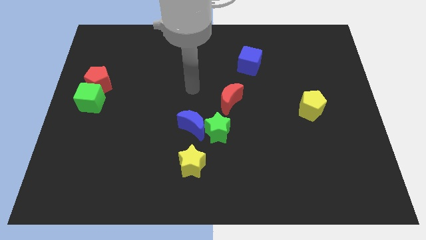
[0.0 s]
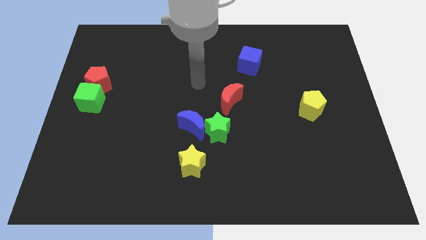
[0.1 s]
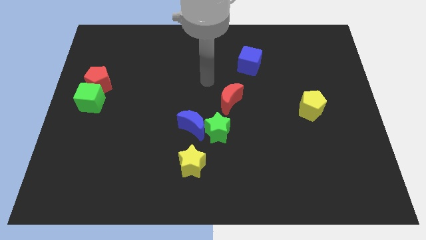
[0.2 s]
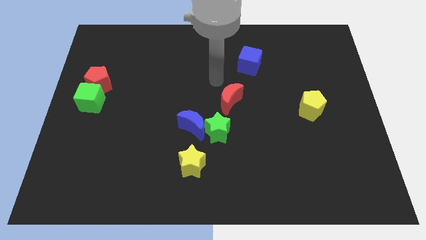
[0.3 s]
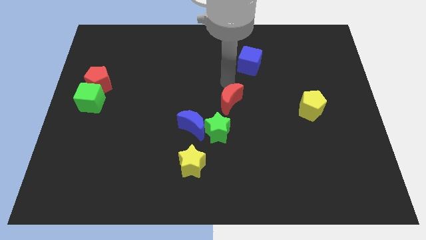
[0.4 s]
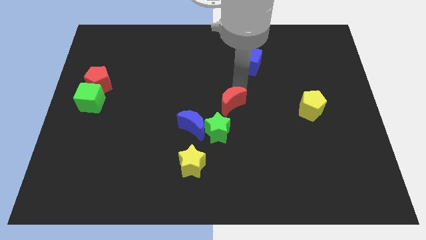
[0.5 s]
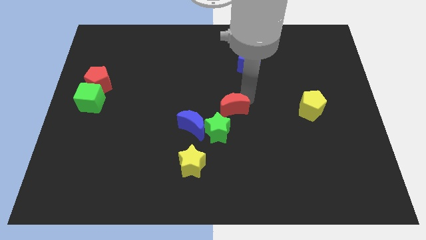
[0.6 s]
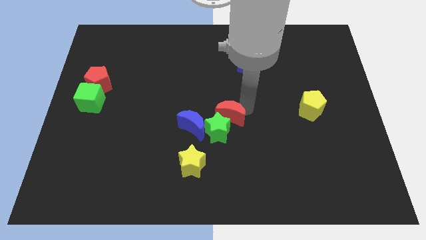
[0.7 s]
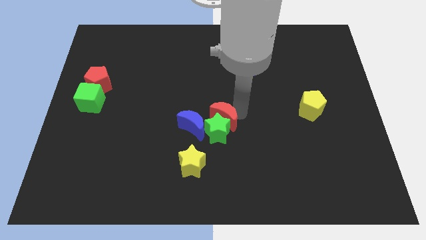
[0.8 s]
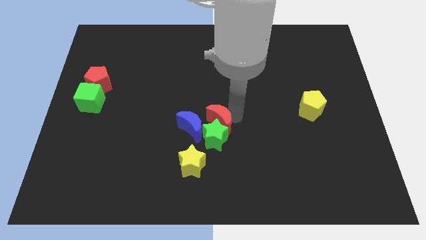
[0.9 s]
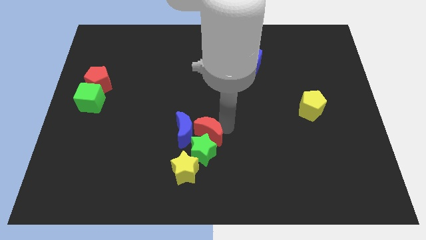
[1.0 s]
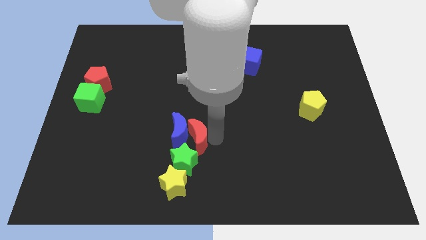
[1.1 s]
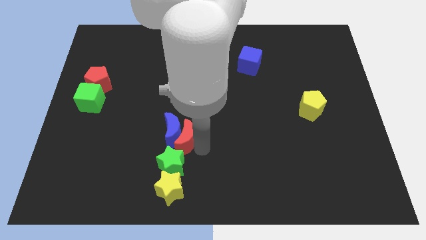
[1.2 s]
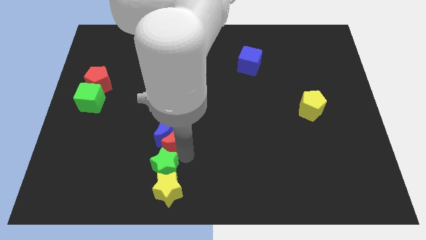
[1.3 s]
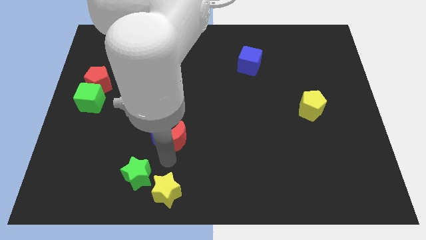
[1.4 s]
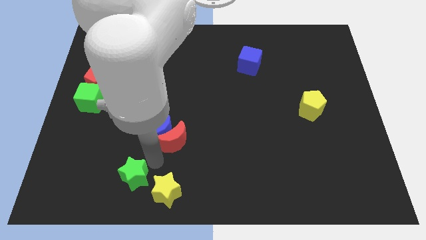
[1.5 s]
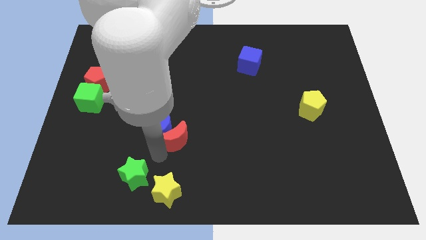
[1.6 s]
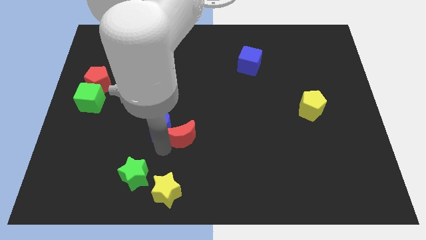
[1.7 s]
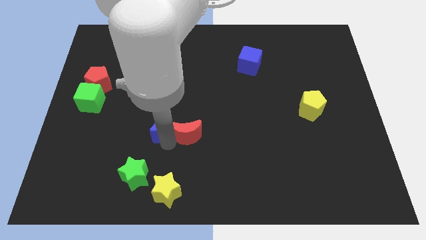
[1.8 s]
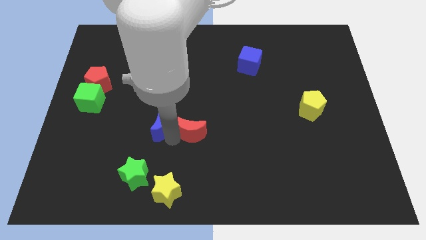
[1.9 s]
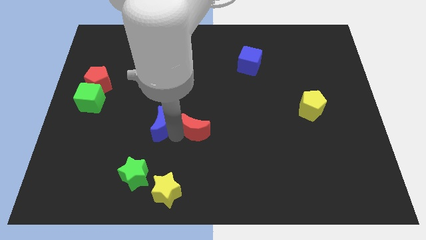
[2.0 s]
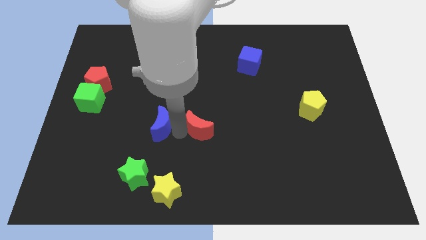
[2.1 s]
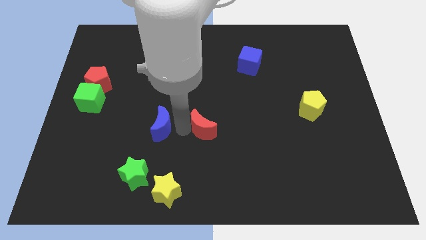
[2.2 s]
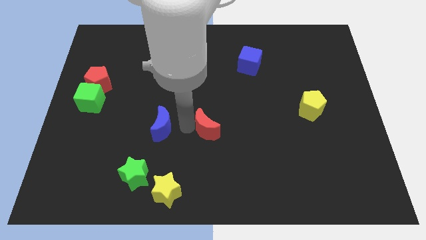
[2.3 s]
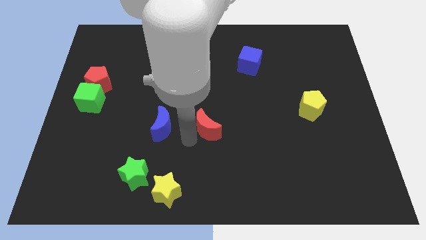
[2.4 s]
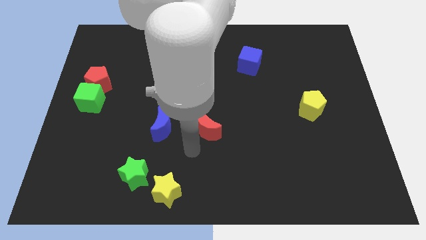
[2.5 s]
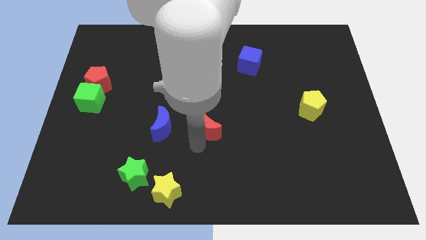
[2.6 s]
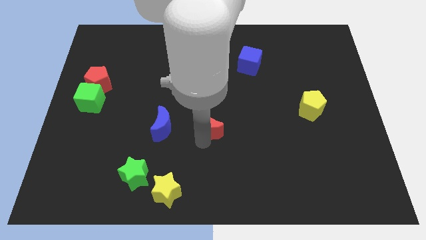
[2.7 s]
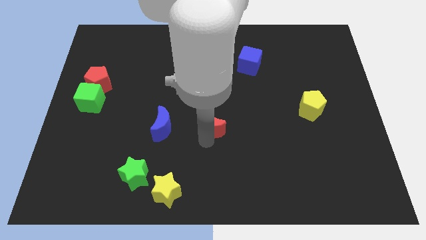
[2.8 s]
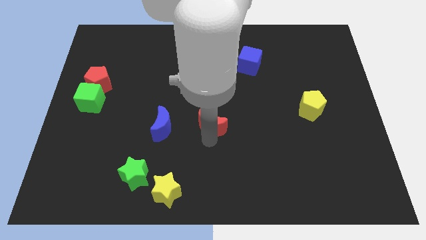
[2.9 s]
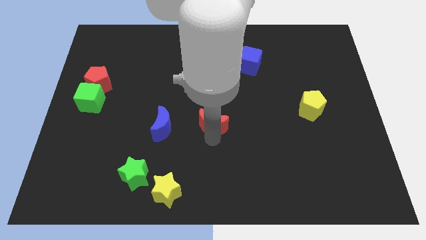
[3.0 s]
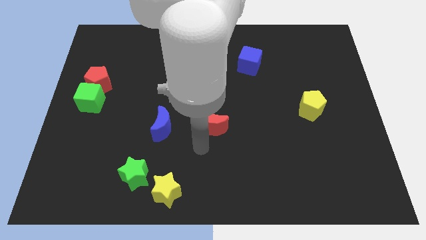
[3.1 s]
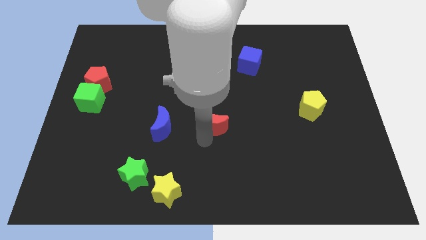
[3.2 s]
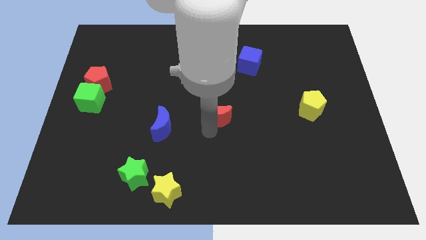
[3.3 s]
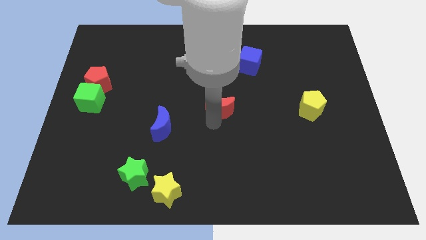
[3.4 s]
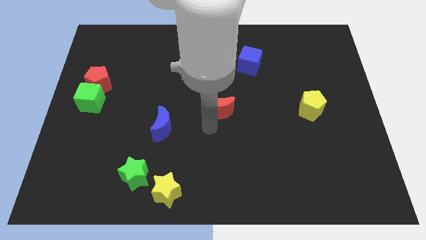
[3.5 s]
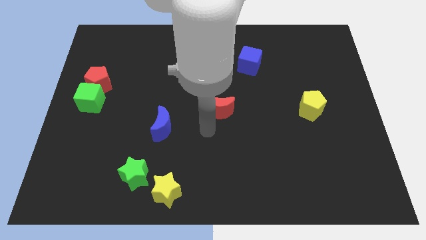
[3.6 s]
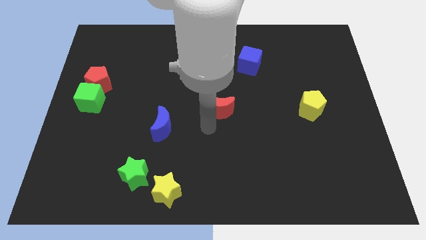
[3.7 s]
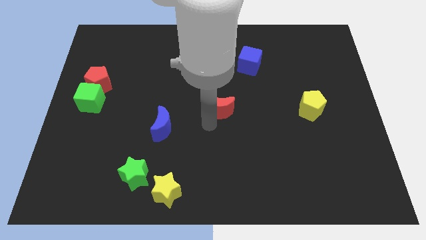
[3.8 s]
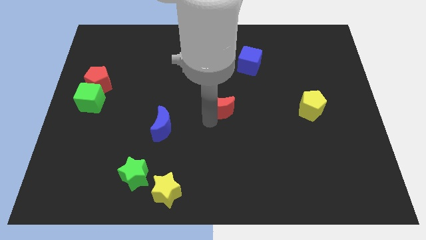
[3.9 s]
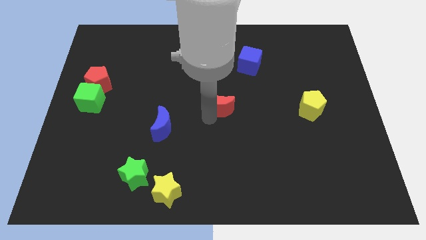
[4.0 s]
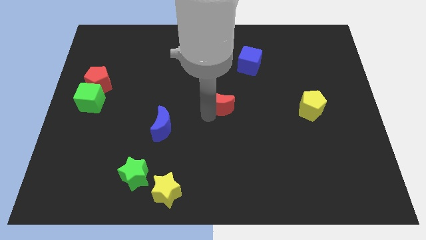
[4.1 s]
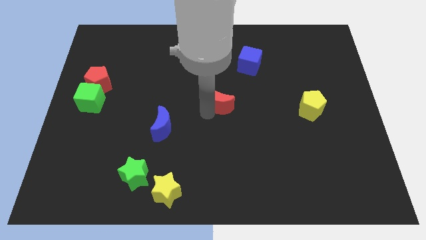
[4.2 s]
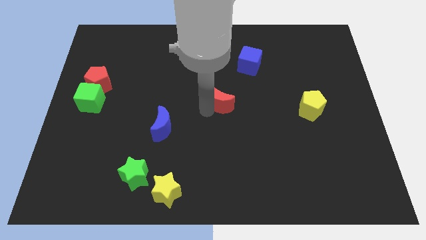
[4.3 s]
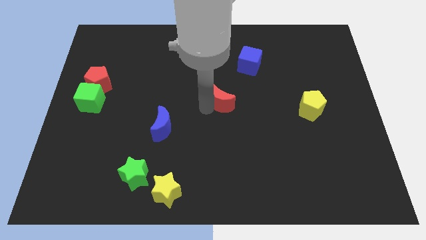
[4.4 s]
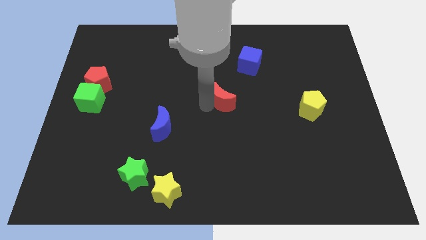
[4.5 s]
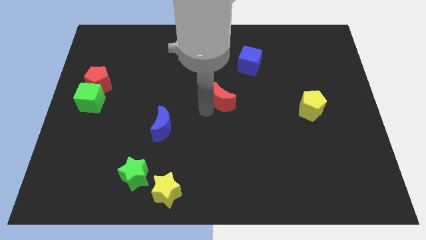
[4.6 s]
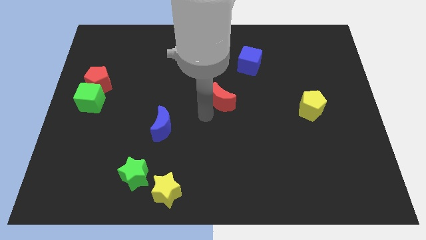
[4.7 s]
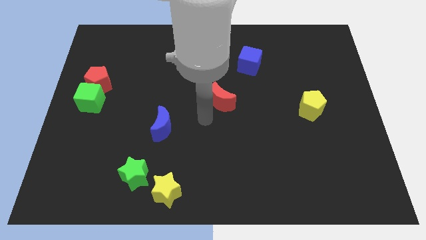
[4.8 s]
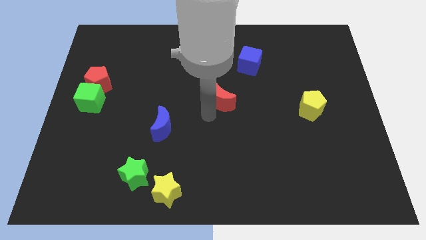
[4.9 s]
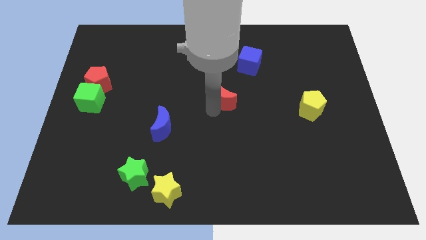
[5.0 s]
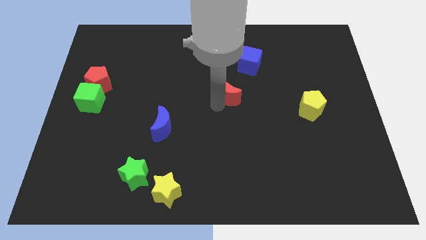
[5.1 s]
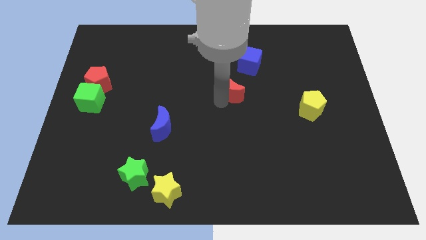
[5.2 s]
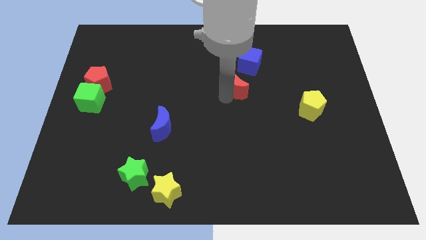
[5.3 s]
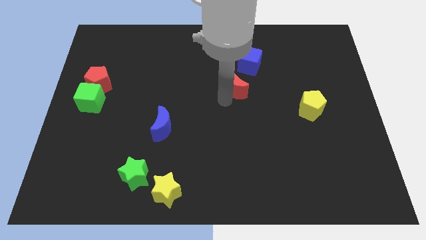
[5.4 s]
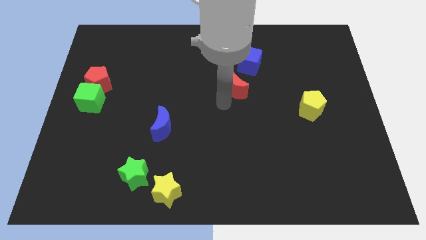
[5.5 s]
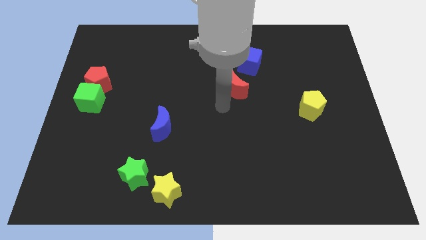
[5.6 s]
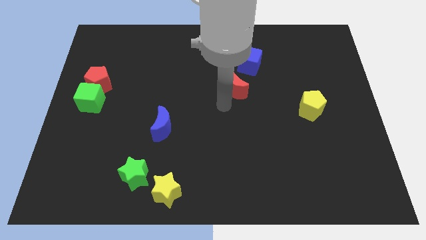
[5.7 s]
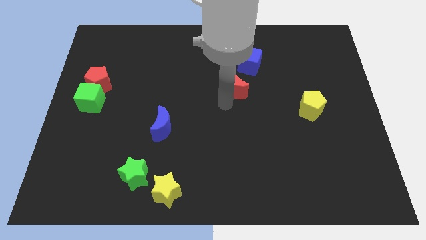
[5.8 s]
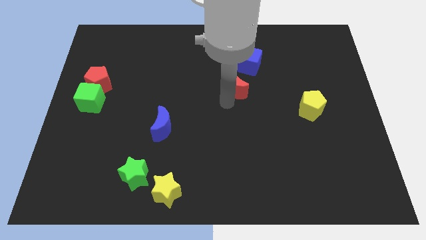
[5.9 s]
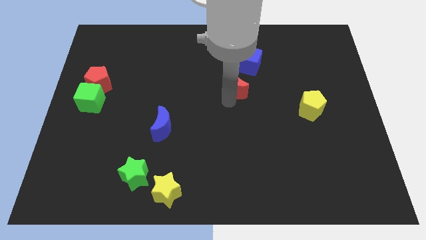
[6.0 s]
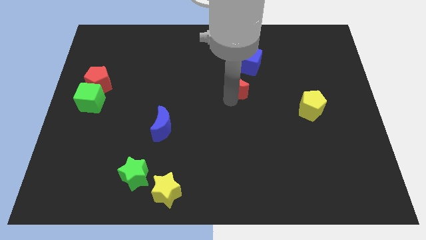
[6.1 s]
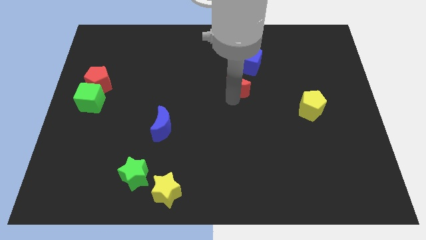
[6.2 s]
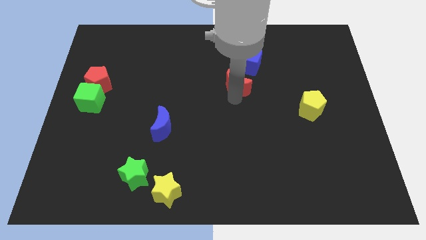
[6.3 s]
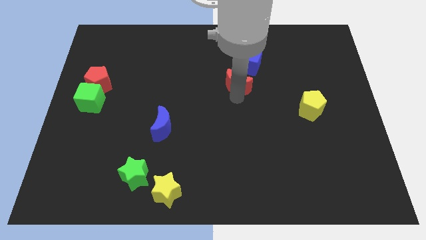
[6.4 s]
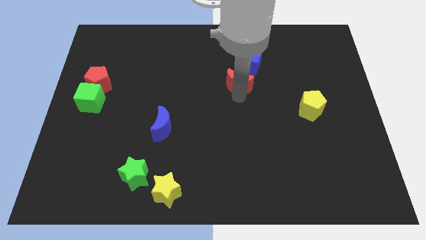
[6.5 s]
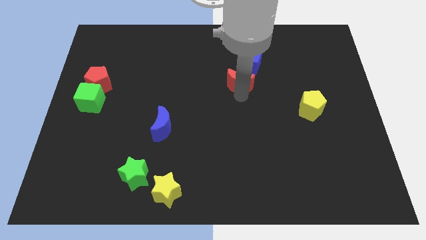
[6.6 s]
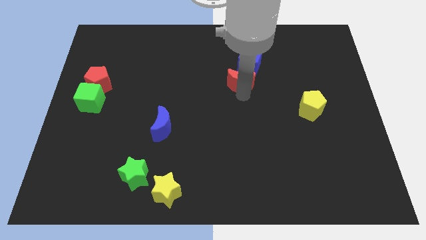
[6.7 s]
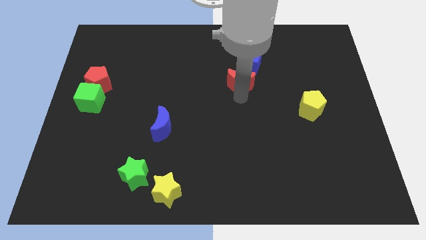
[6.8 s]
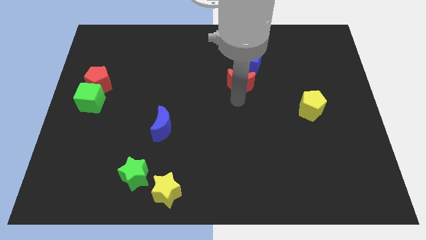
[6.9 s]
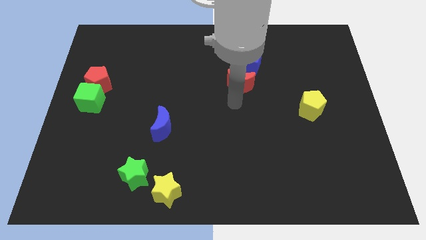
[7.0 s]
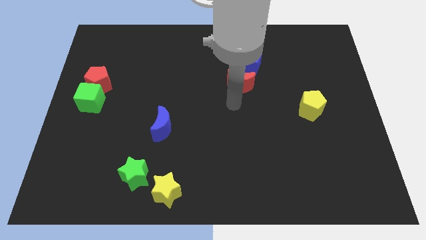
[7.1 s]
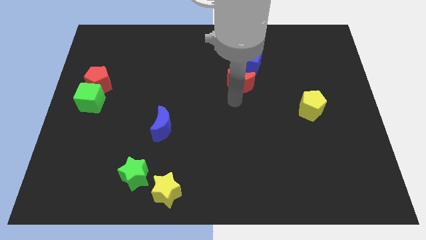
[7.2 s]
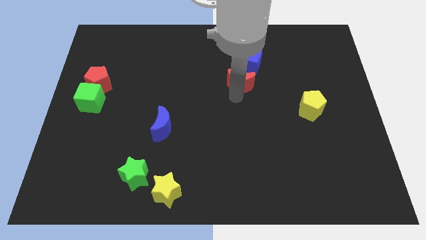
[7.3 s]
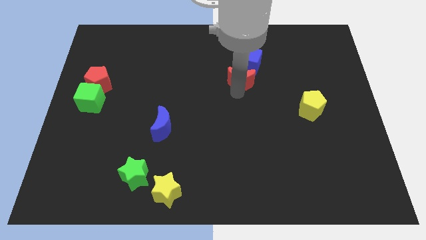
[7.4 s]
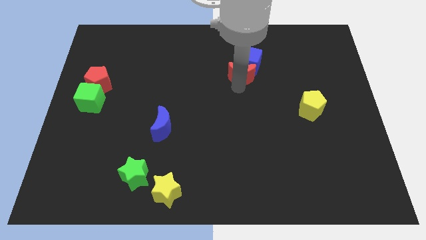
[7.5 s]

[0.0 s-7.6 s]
move the red moon close to the blue cube

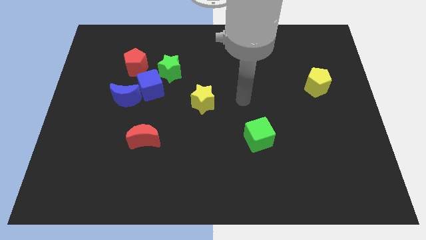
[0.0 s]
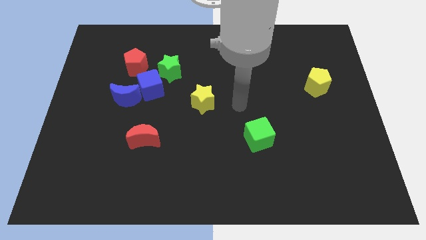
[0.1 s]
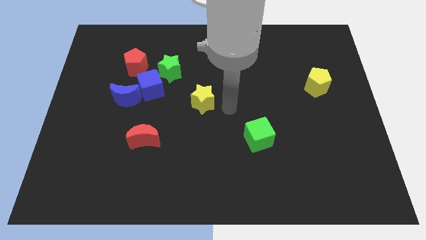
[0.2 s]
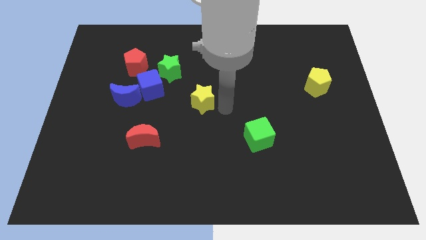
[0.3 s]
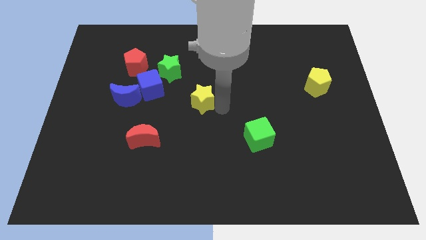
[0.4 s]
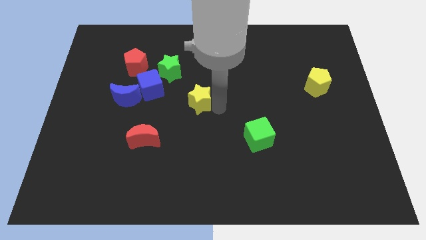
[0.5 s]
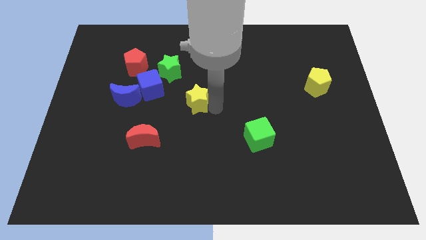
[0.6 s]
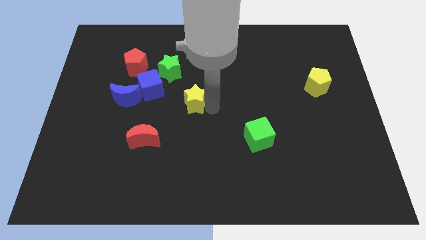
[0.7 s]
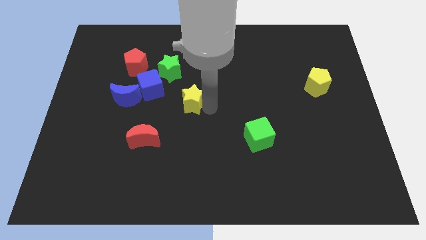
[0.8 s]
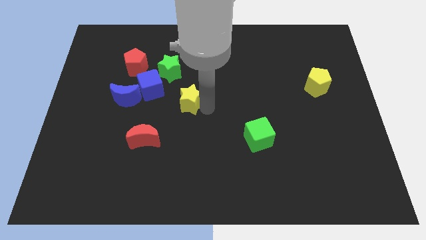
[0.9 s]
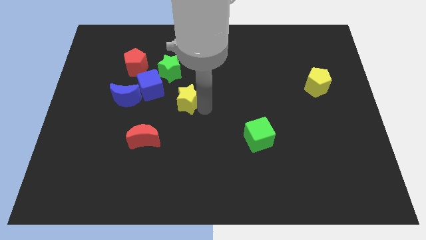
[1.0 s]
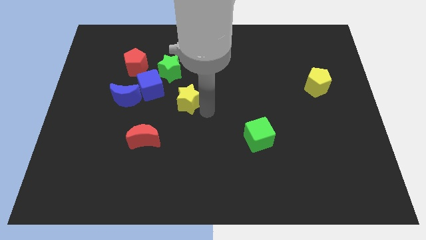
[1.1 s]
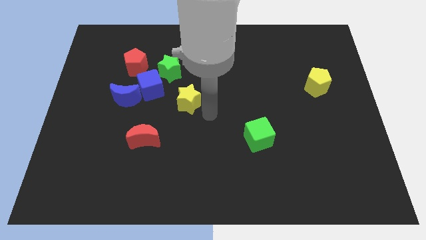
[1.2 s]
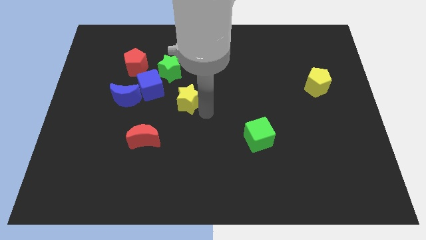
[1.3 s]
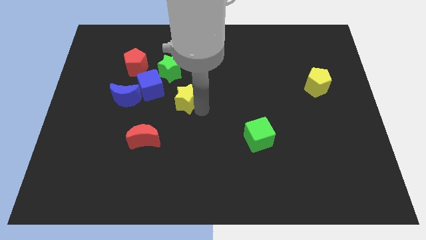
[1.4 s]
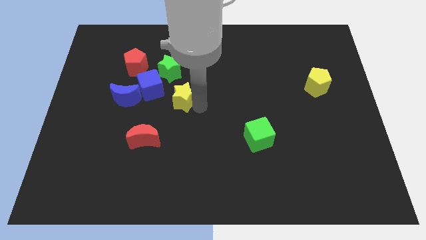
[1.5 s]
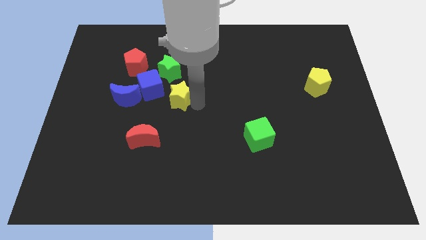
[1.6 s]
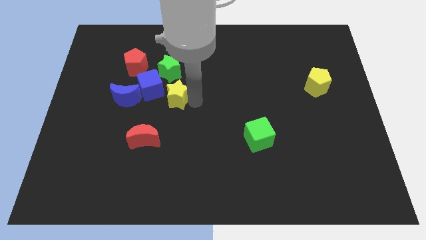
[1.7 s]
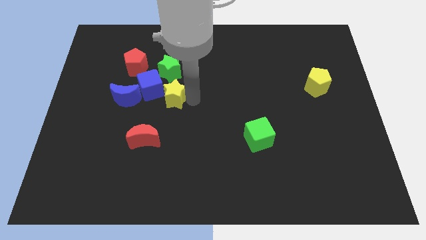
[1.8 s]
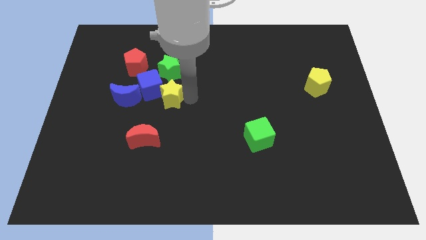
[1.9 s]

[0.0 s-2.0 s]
push the yellow star to the blue cube
